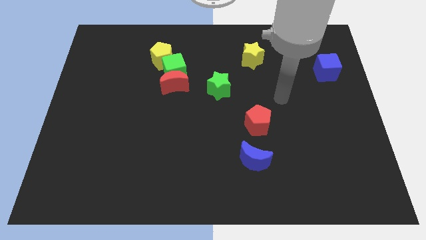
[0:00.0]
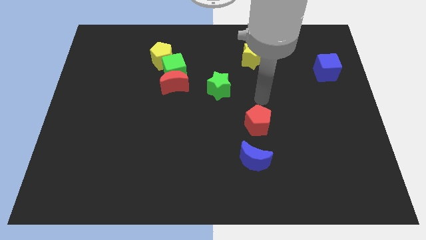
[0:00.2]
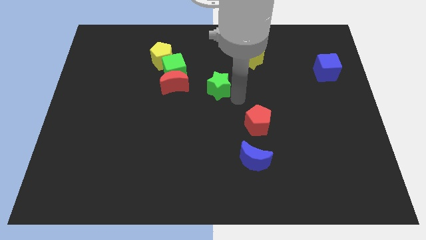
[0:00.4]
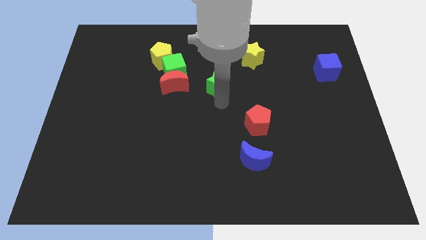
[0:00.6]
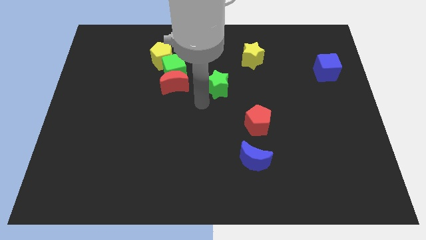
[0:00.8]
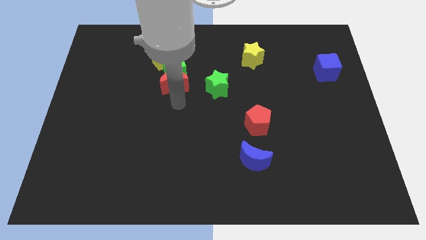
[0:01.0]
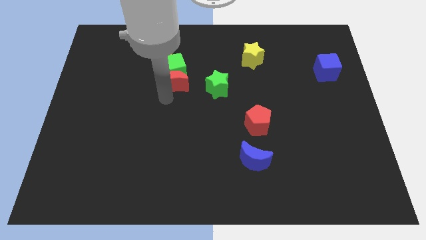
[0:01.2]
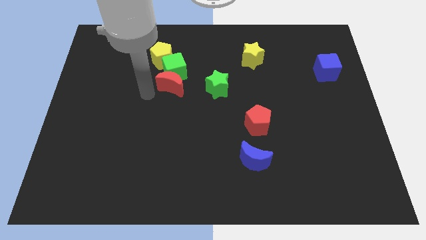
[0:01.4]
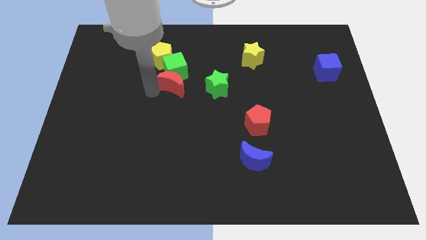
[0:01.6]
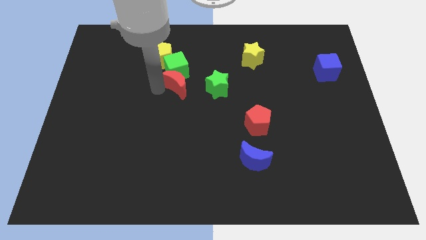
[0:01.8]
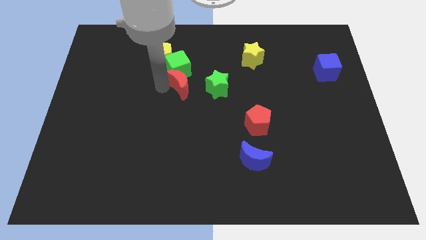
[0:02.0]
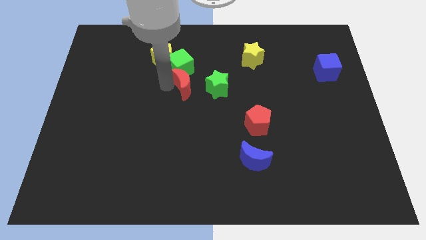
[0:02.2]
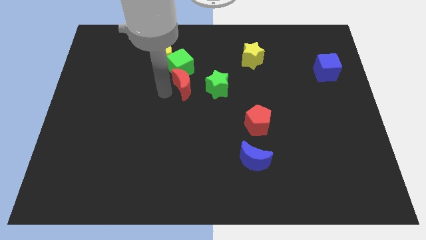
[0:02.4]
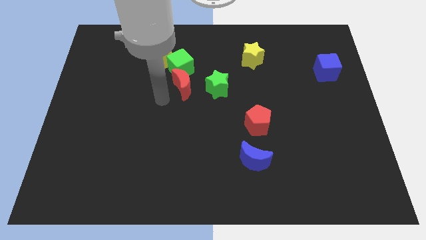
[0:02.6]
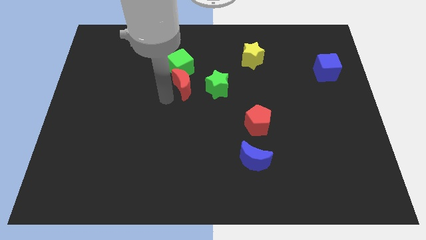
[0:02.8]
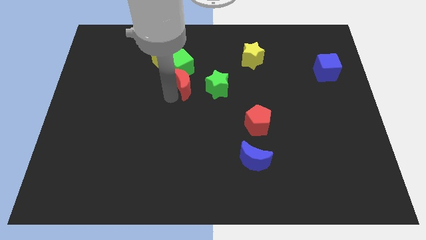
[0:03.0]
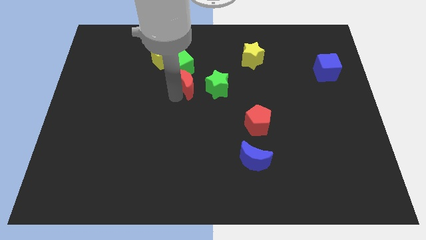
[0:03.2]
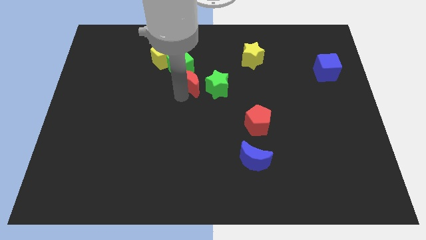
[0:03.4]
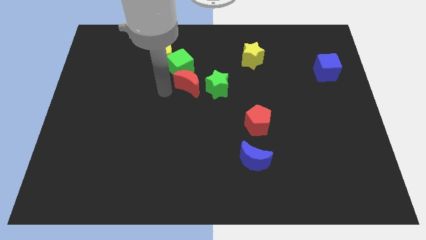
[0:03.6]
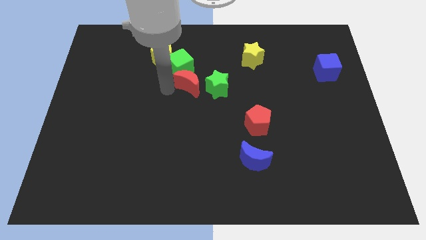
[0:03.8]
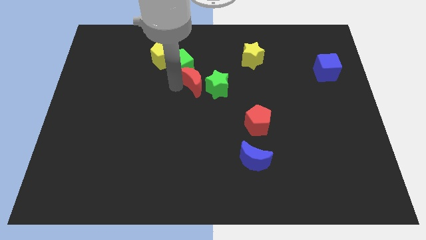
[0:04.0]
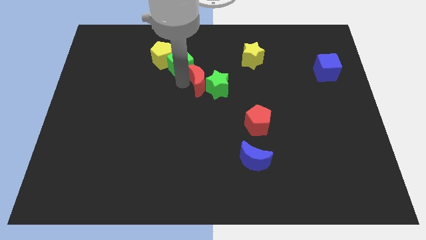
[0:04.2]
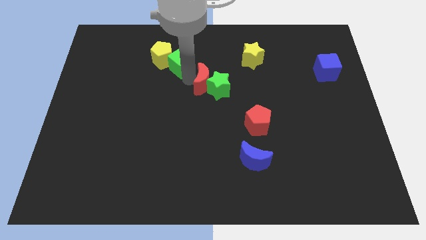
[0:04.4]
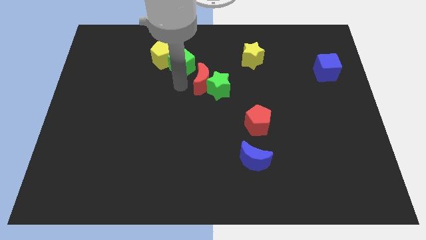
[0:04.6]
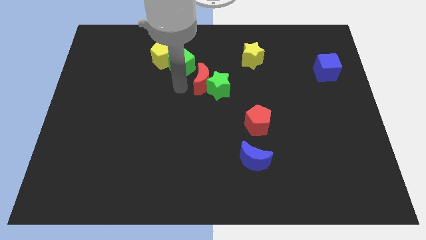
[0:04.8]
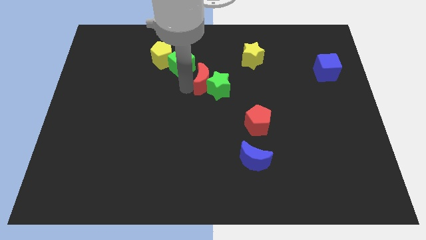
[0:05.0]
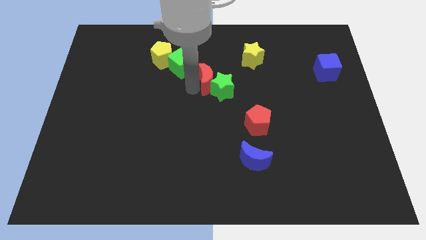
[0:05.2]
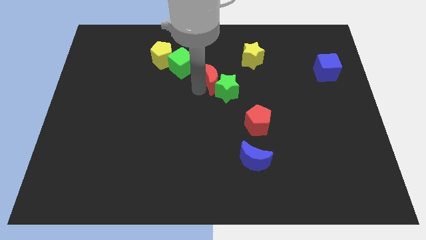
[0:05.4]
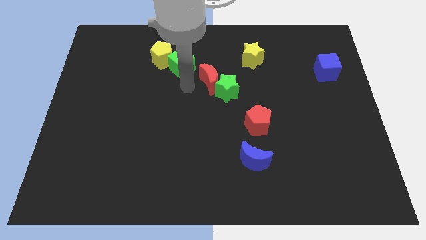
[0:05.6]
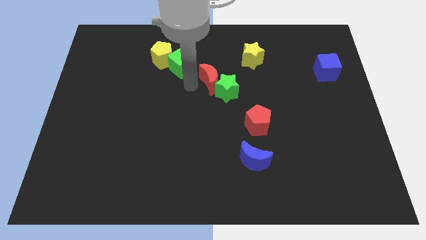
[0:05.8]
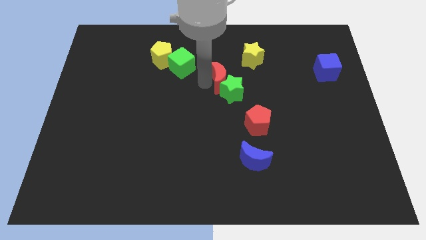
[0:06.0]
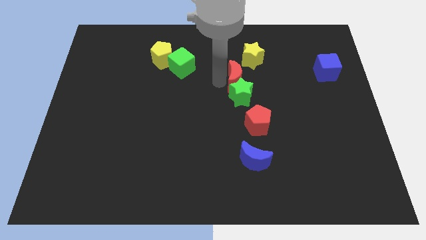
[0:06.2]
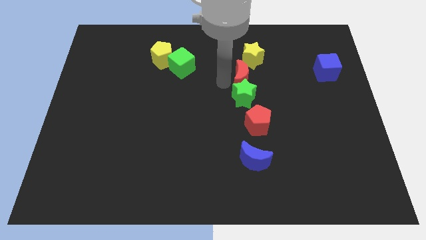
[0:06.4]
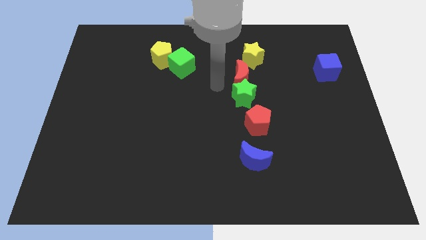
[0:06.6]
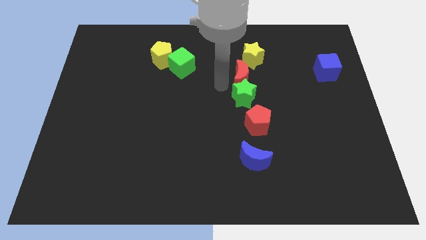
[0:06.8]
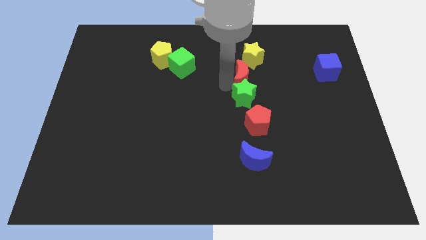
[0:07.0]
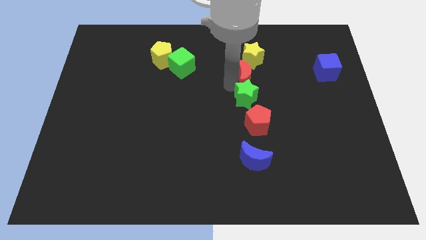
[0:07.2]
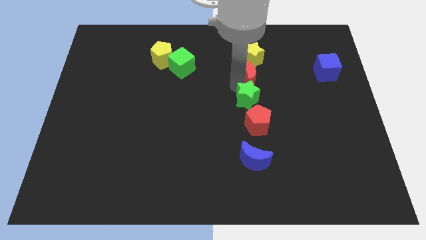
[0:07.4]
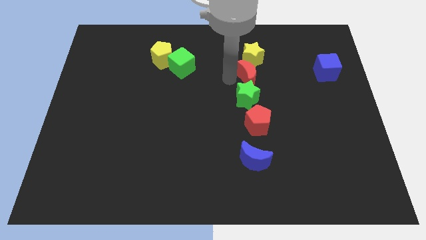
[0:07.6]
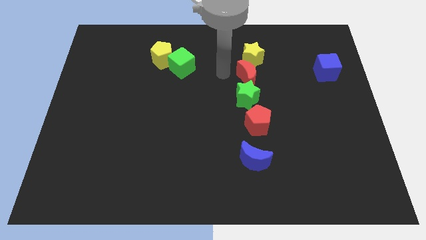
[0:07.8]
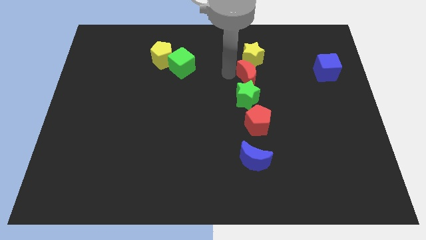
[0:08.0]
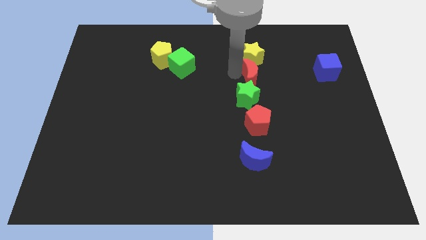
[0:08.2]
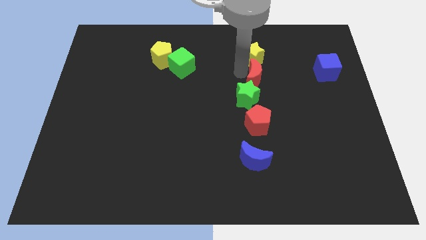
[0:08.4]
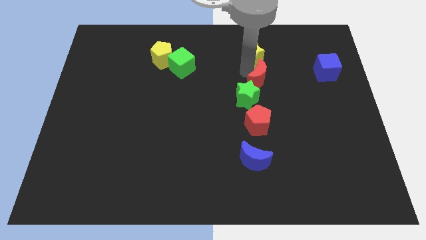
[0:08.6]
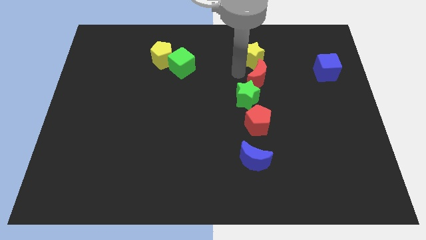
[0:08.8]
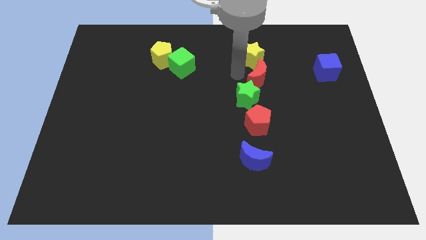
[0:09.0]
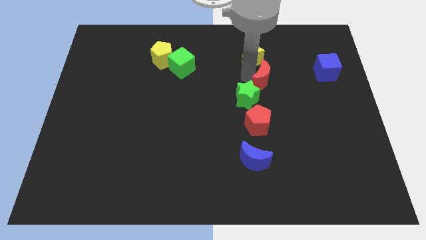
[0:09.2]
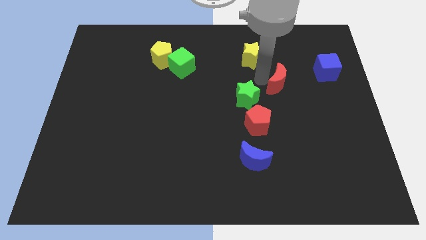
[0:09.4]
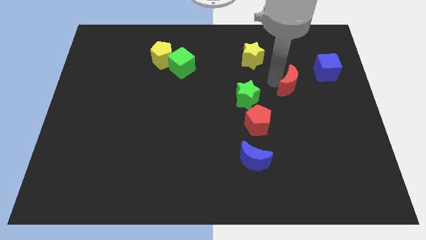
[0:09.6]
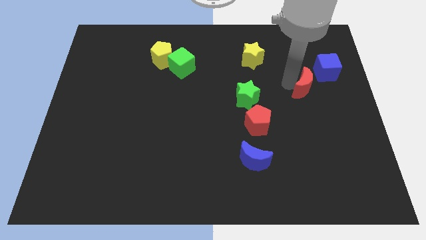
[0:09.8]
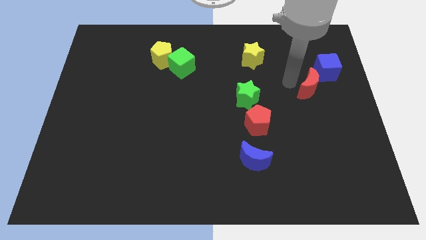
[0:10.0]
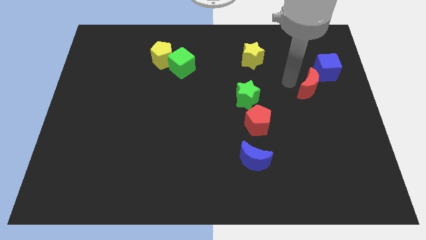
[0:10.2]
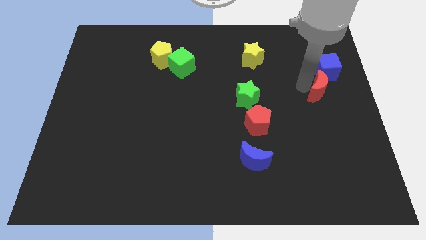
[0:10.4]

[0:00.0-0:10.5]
move the red moon to the right side of the board

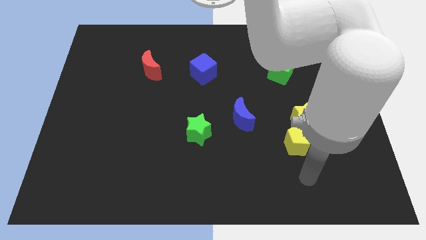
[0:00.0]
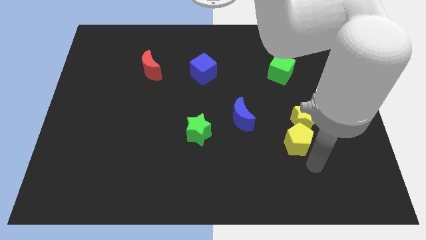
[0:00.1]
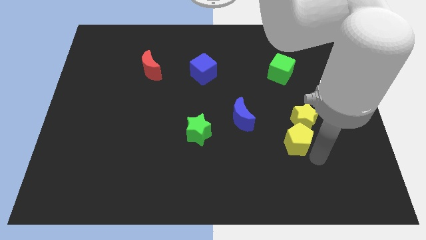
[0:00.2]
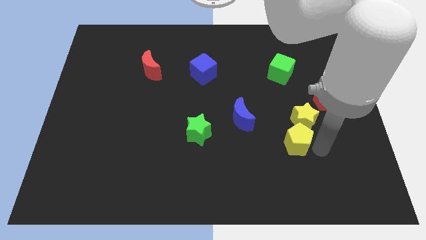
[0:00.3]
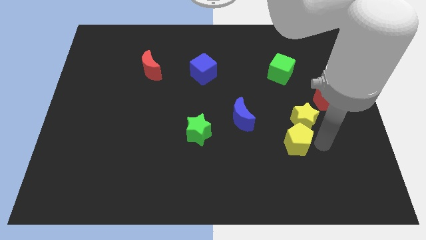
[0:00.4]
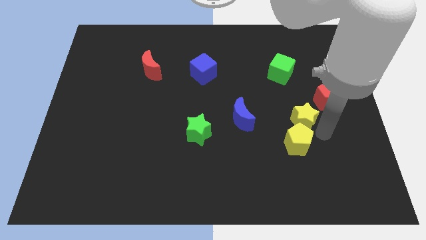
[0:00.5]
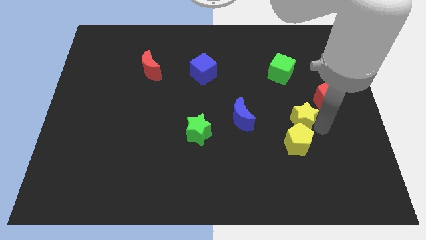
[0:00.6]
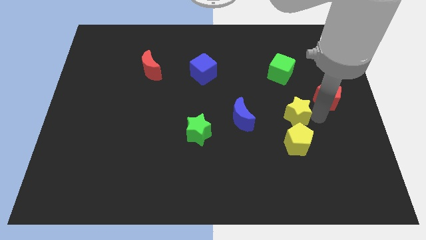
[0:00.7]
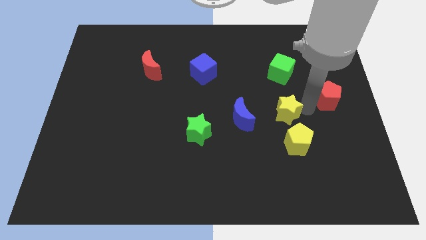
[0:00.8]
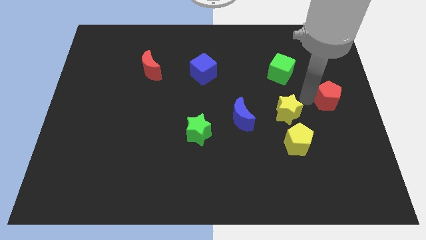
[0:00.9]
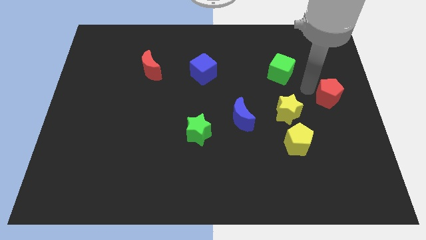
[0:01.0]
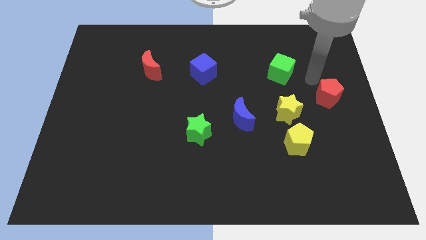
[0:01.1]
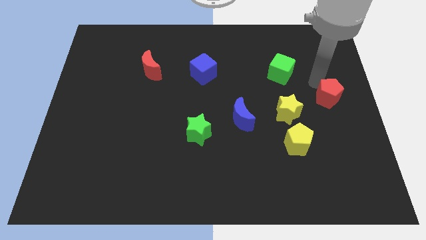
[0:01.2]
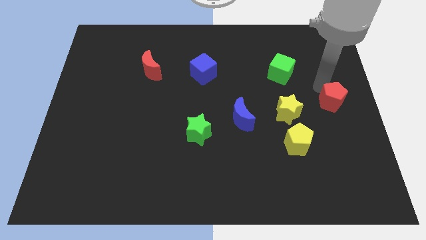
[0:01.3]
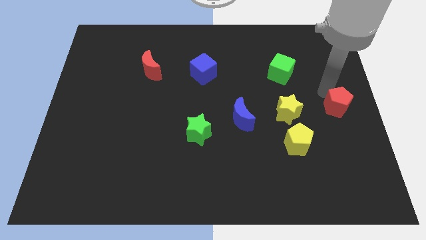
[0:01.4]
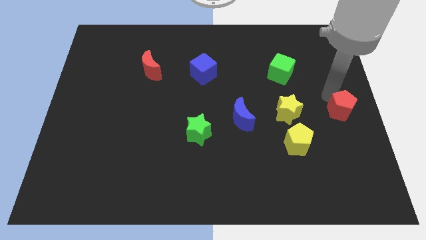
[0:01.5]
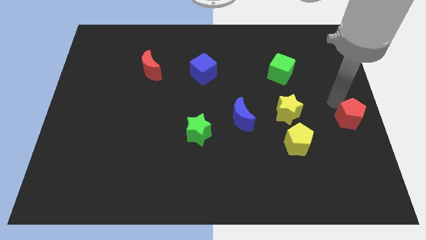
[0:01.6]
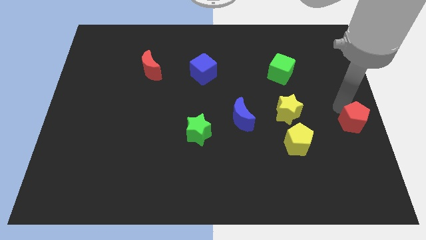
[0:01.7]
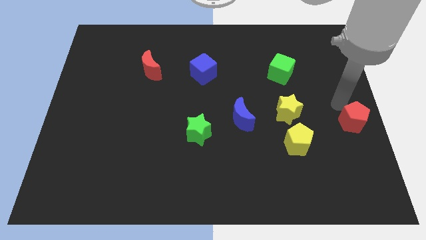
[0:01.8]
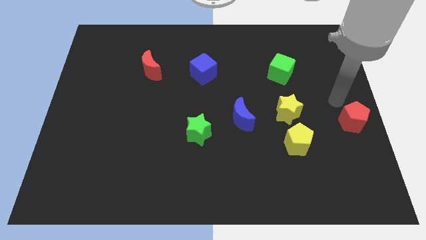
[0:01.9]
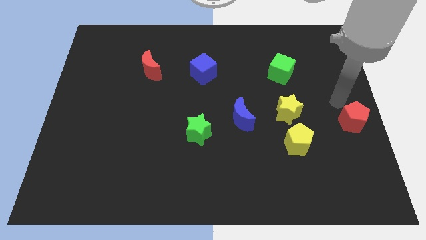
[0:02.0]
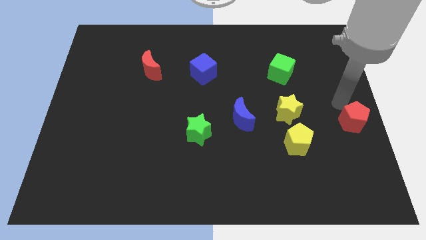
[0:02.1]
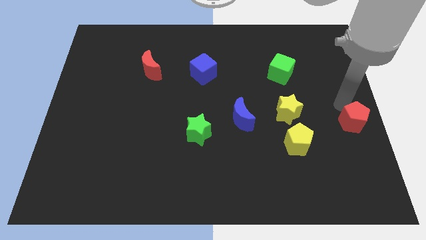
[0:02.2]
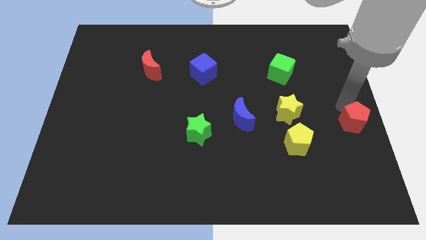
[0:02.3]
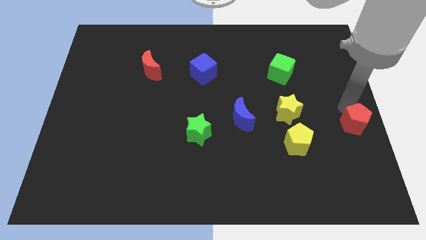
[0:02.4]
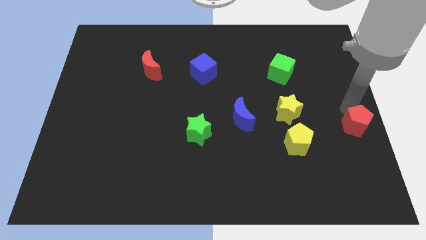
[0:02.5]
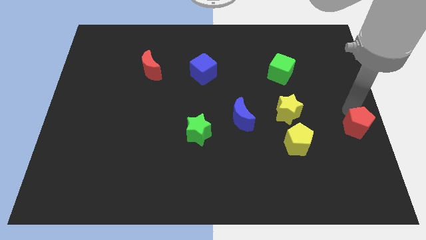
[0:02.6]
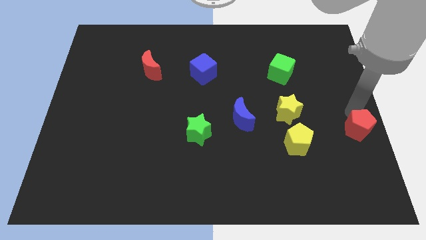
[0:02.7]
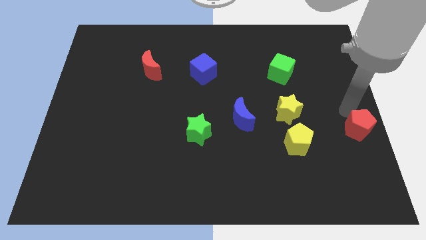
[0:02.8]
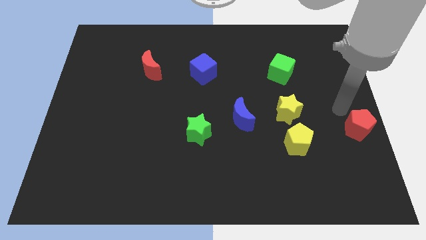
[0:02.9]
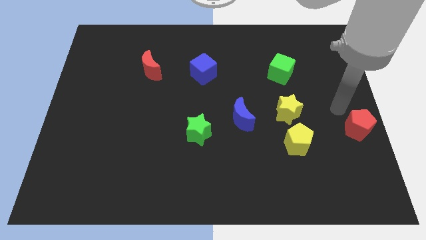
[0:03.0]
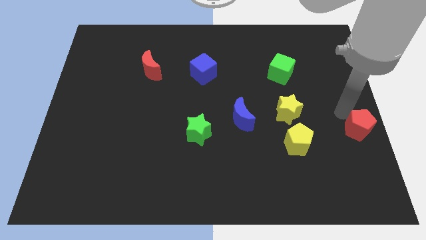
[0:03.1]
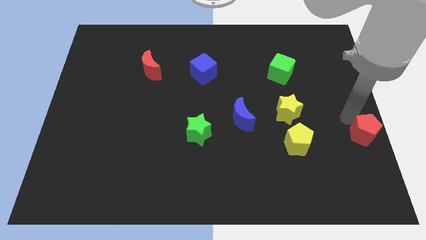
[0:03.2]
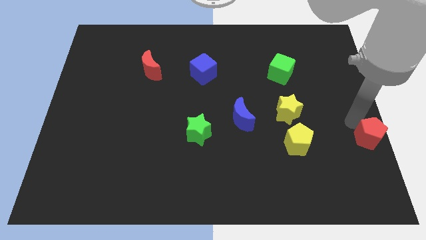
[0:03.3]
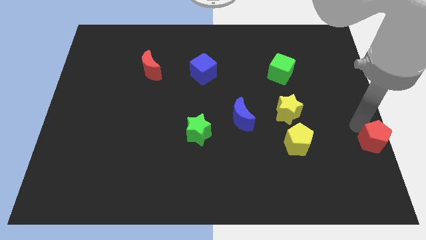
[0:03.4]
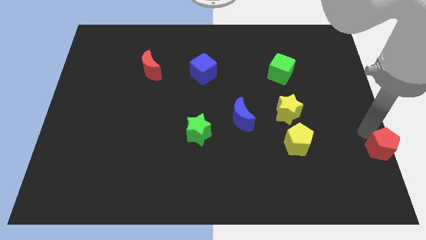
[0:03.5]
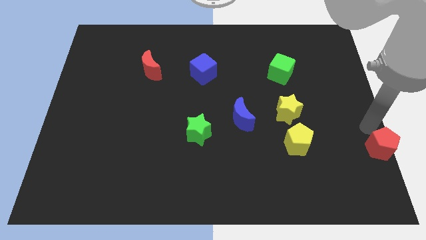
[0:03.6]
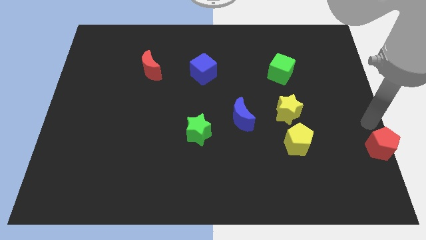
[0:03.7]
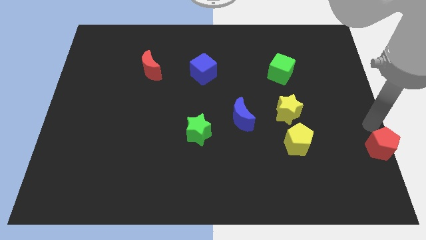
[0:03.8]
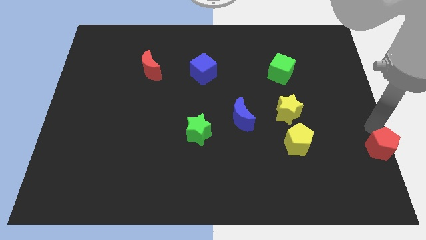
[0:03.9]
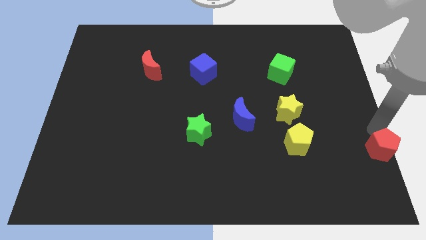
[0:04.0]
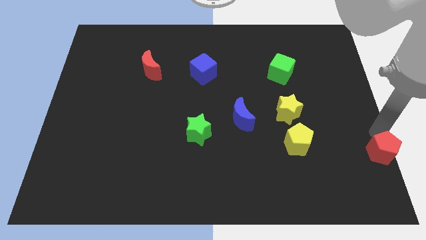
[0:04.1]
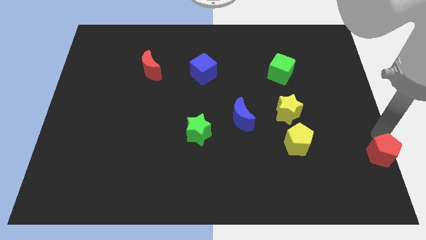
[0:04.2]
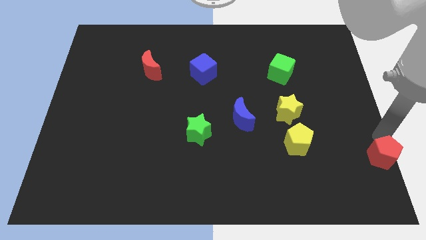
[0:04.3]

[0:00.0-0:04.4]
put the red pentagon to the bottom right corner
